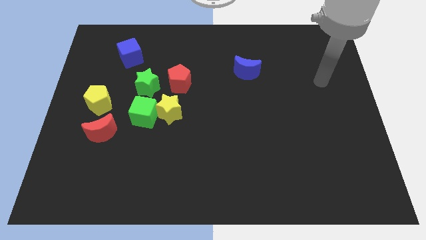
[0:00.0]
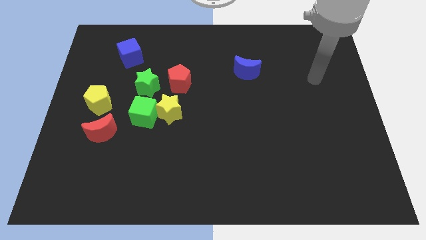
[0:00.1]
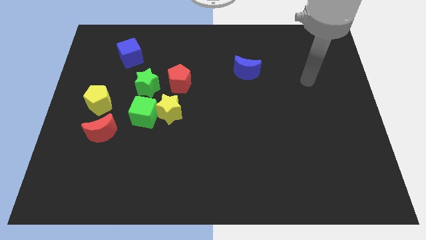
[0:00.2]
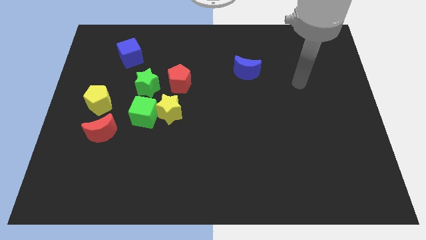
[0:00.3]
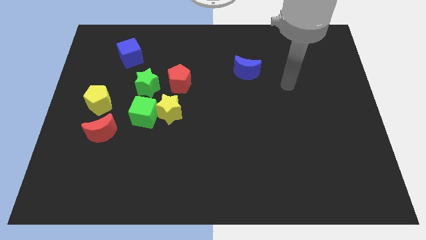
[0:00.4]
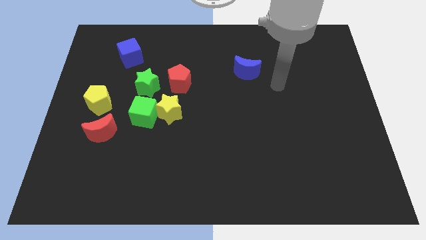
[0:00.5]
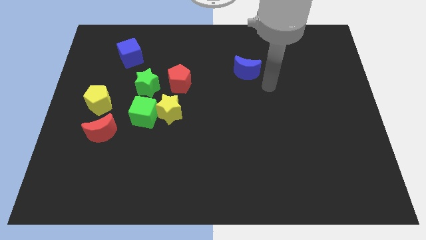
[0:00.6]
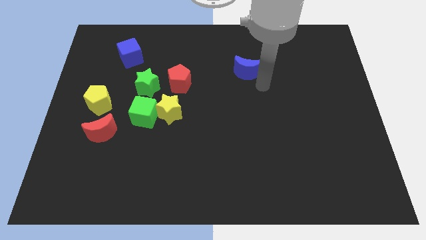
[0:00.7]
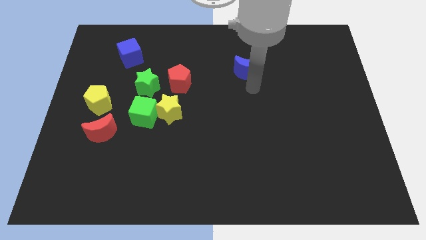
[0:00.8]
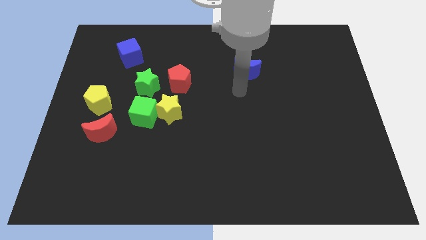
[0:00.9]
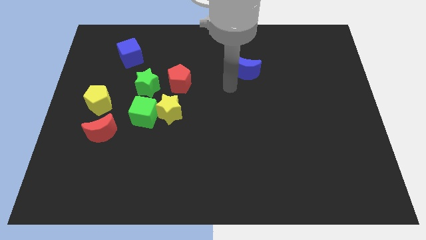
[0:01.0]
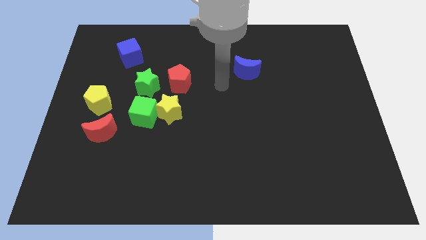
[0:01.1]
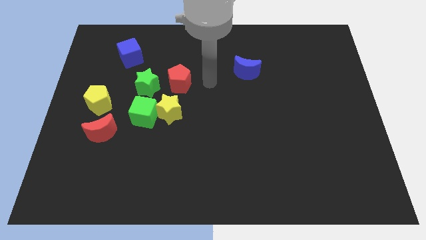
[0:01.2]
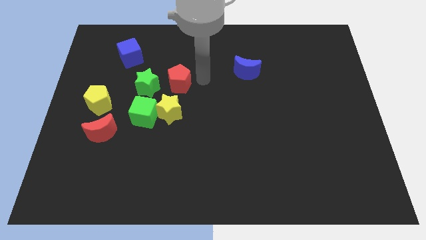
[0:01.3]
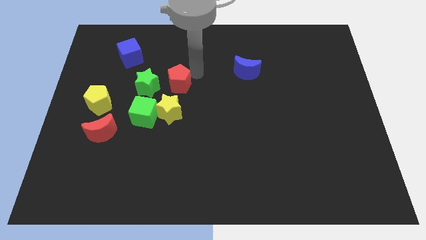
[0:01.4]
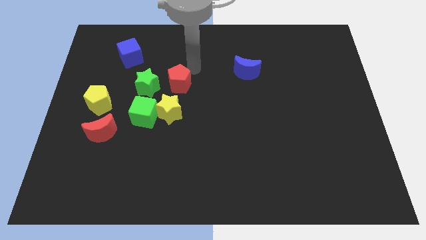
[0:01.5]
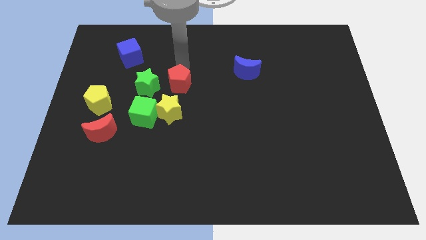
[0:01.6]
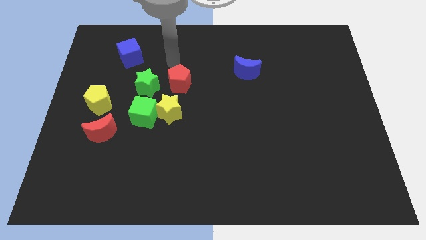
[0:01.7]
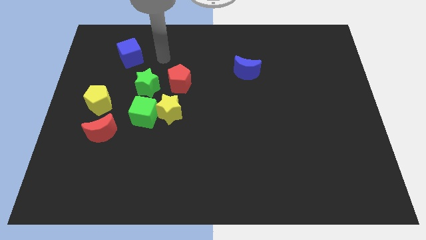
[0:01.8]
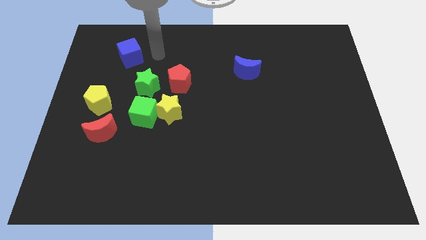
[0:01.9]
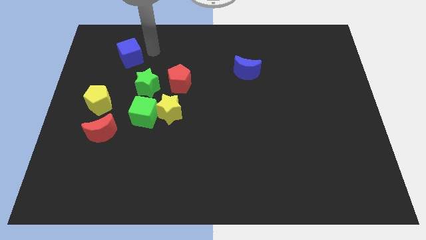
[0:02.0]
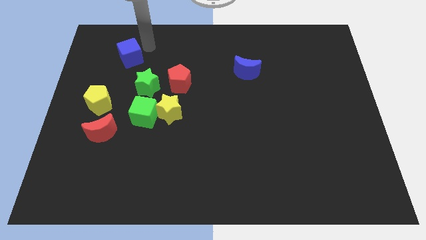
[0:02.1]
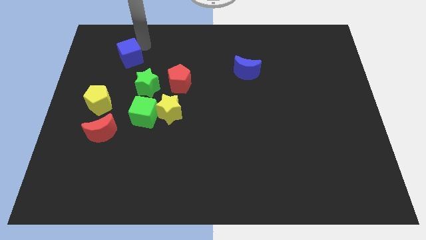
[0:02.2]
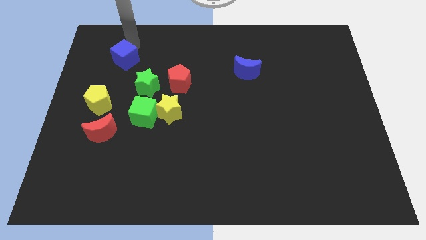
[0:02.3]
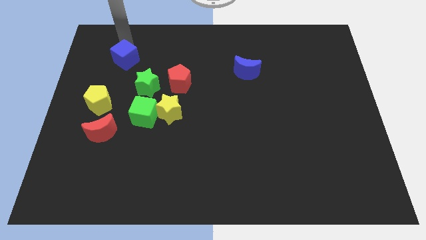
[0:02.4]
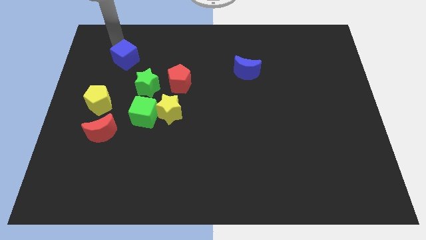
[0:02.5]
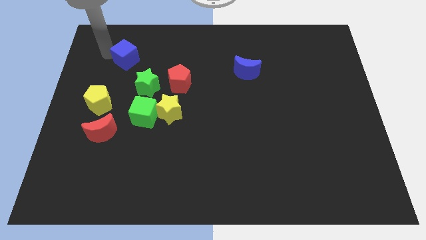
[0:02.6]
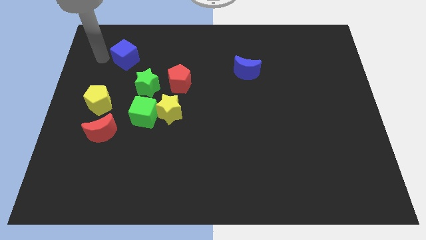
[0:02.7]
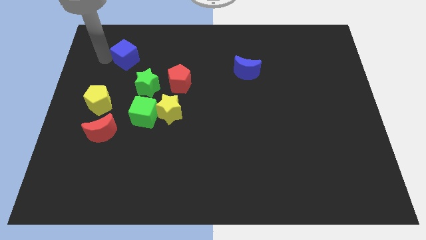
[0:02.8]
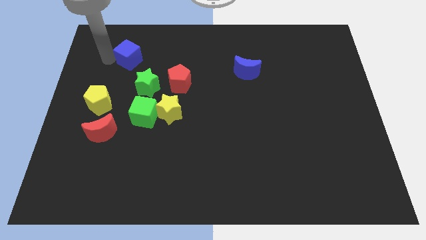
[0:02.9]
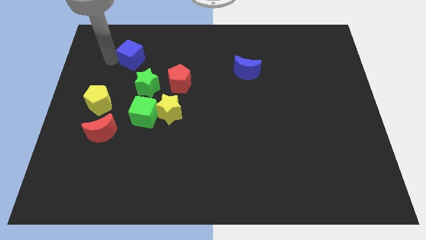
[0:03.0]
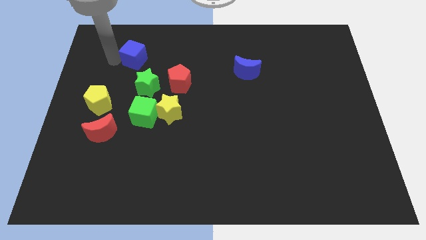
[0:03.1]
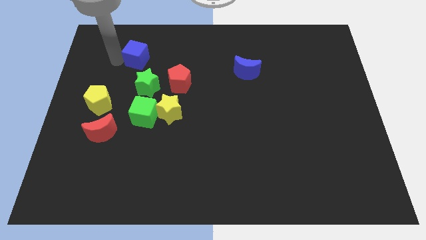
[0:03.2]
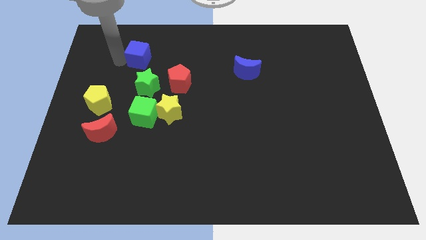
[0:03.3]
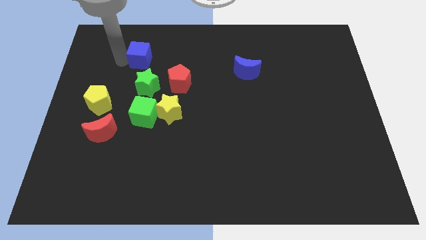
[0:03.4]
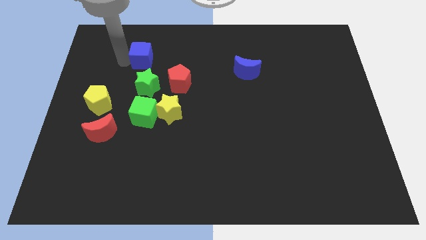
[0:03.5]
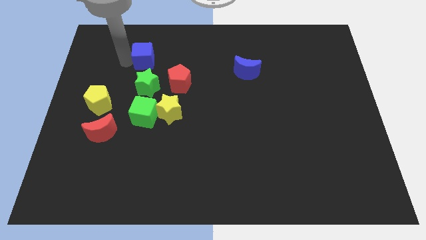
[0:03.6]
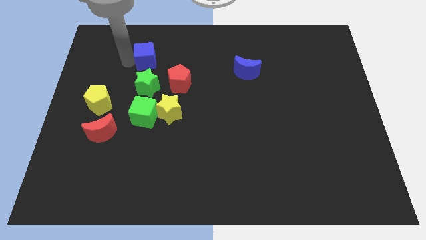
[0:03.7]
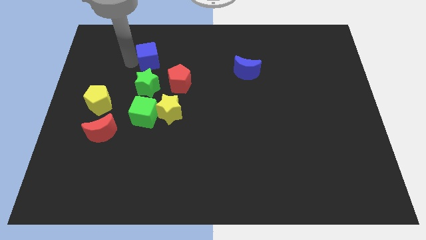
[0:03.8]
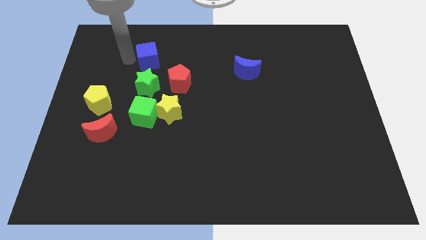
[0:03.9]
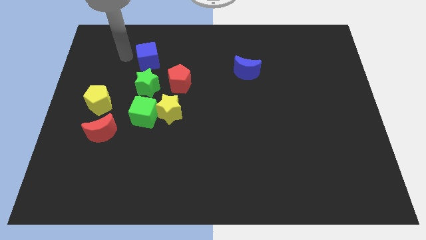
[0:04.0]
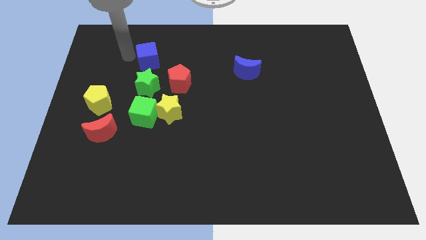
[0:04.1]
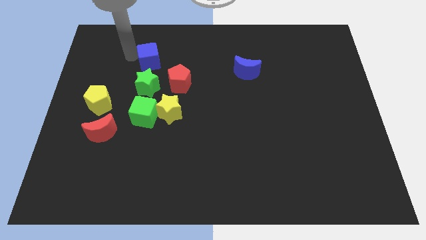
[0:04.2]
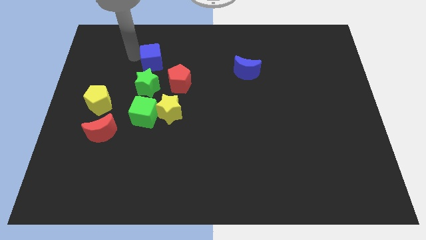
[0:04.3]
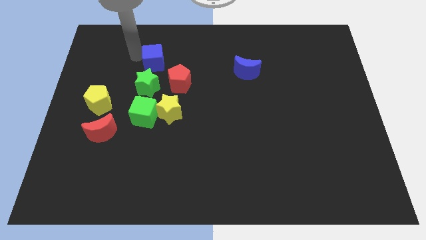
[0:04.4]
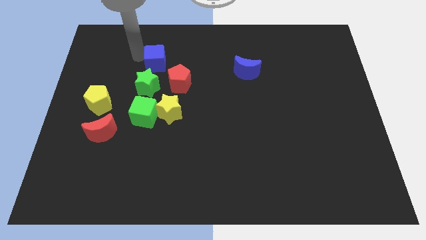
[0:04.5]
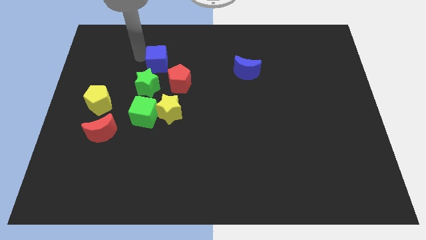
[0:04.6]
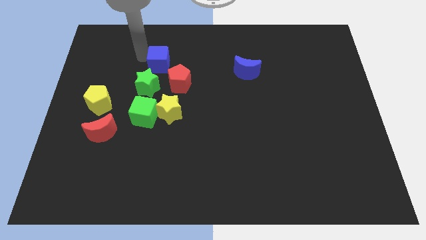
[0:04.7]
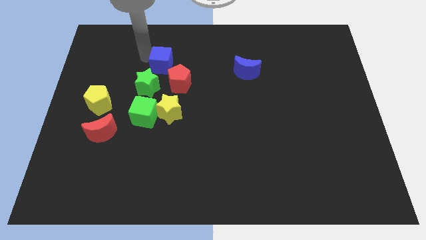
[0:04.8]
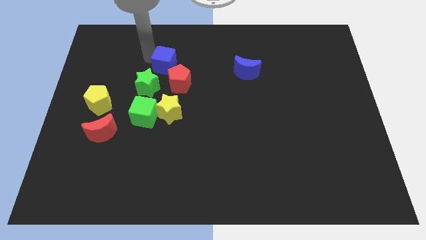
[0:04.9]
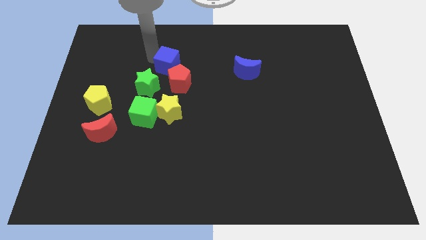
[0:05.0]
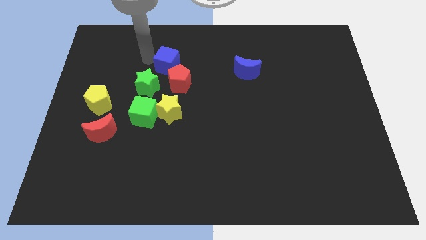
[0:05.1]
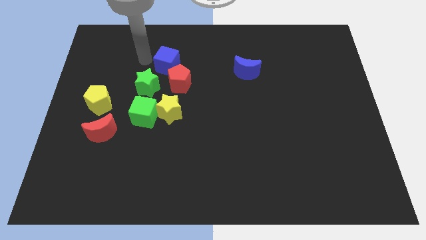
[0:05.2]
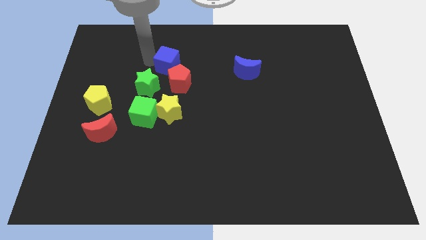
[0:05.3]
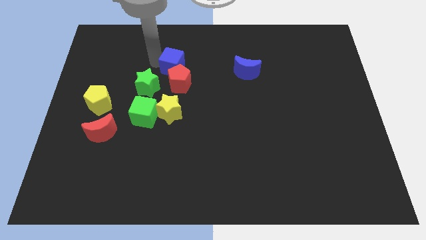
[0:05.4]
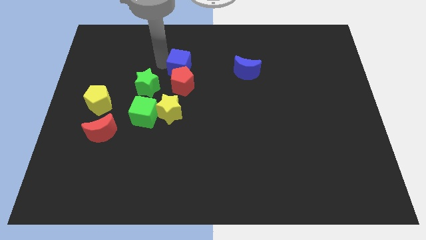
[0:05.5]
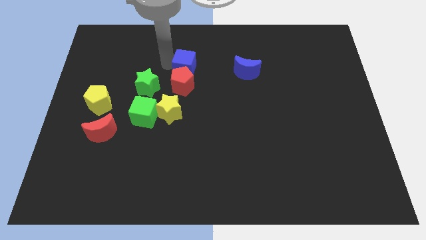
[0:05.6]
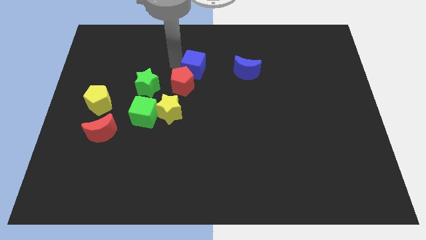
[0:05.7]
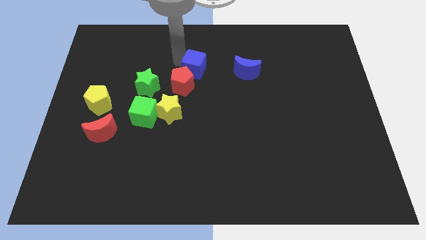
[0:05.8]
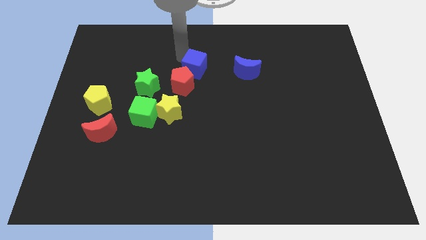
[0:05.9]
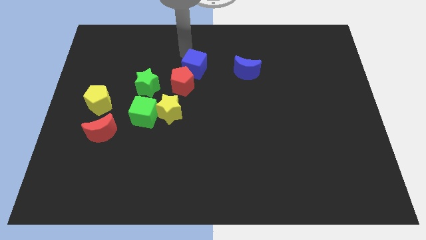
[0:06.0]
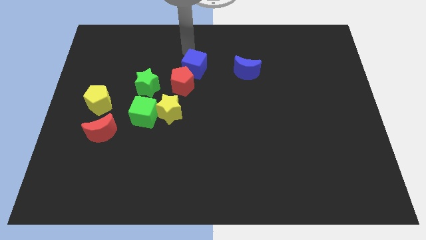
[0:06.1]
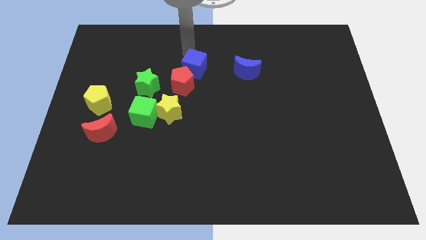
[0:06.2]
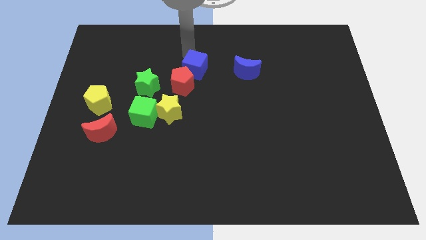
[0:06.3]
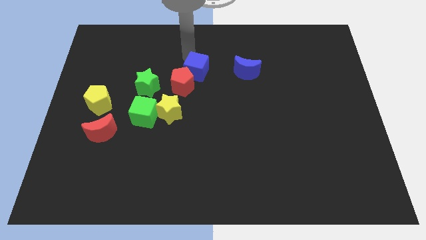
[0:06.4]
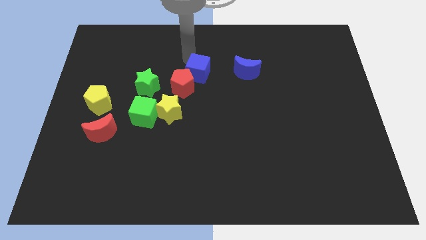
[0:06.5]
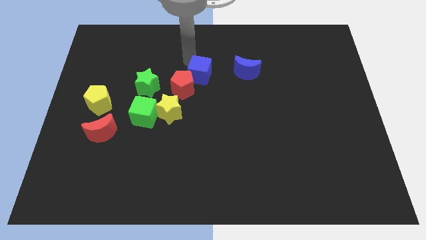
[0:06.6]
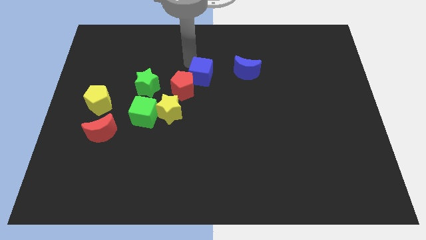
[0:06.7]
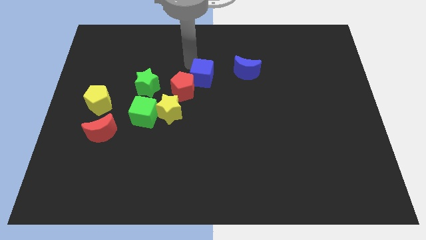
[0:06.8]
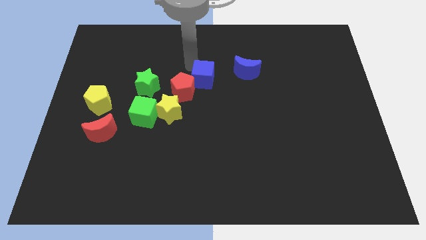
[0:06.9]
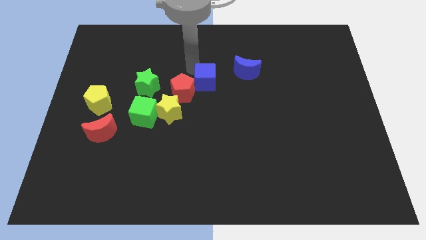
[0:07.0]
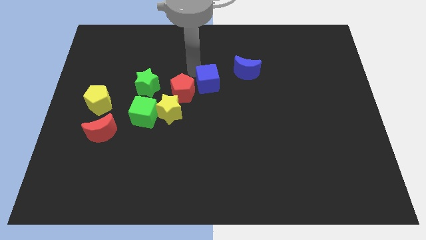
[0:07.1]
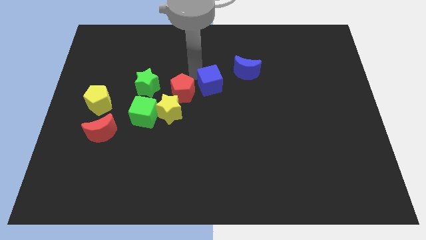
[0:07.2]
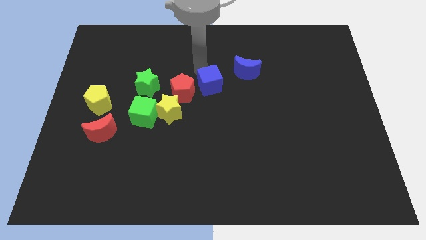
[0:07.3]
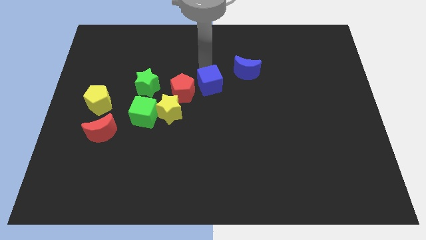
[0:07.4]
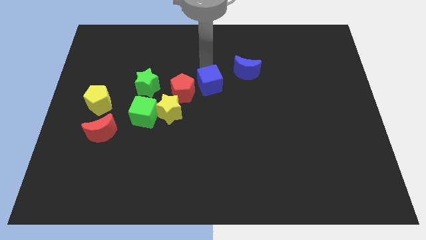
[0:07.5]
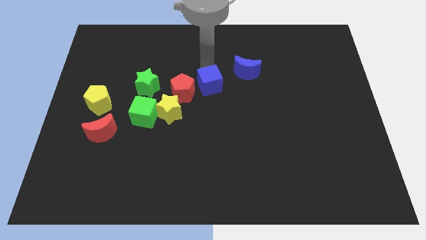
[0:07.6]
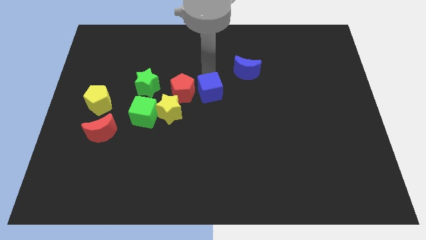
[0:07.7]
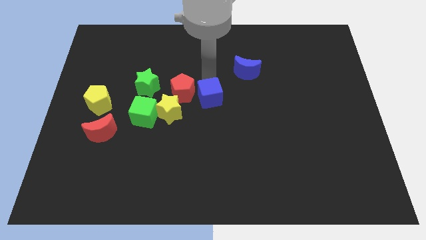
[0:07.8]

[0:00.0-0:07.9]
push the blue cube just right of the yellow star

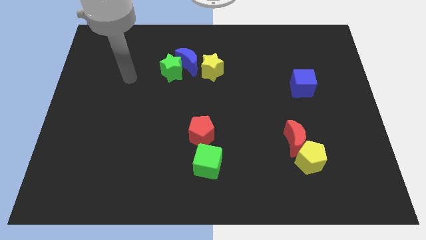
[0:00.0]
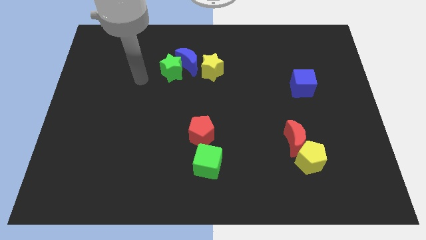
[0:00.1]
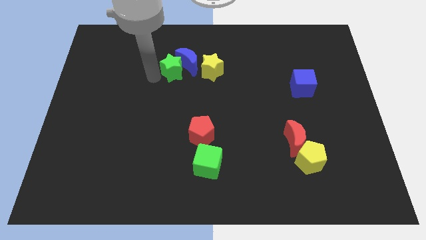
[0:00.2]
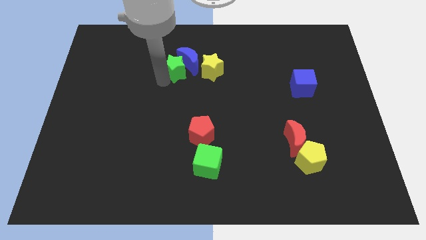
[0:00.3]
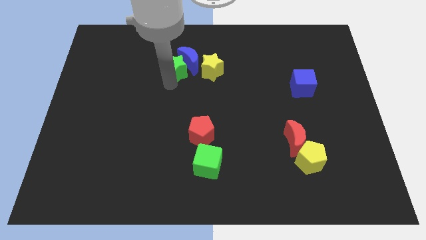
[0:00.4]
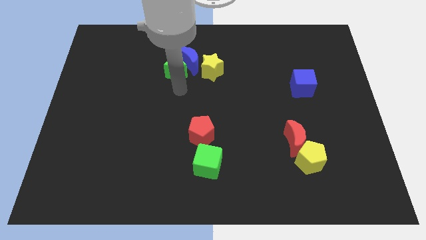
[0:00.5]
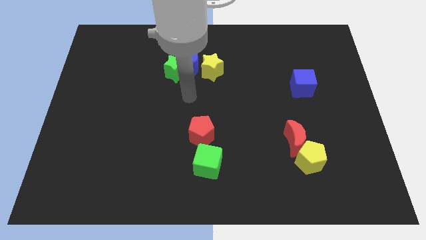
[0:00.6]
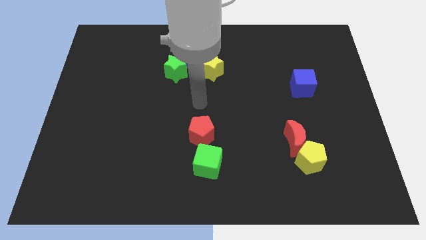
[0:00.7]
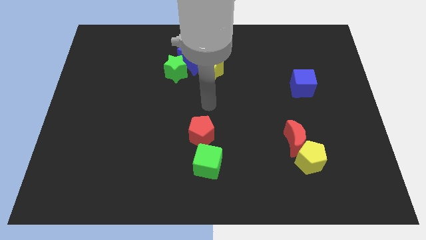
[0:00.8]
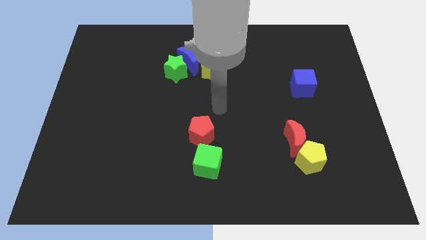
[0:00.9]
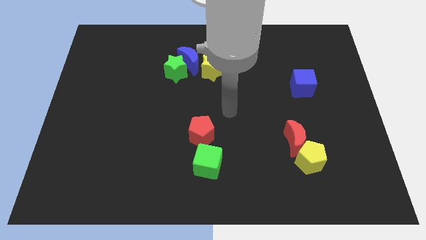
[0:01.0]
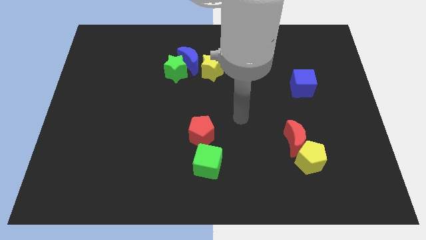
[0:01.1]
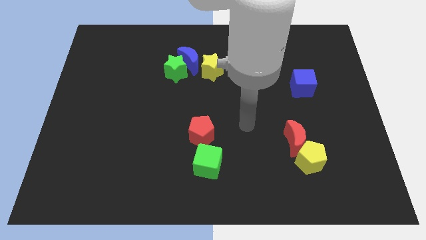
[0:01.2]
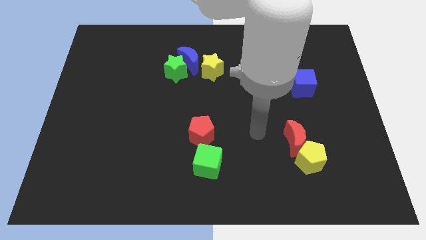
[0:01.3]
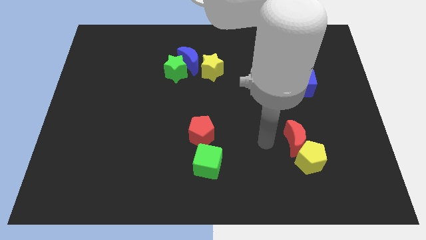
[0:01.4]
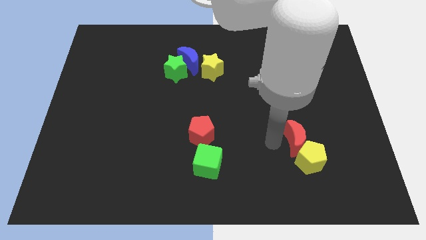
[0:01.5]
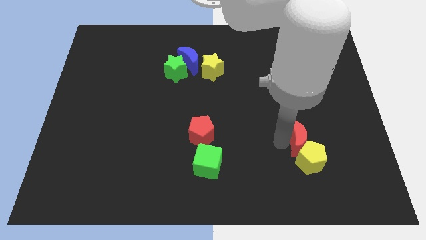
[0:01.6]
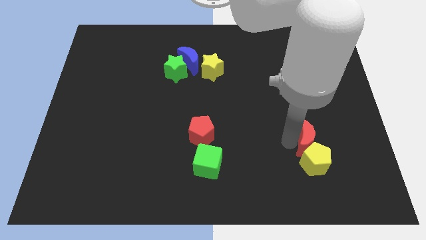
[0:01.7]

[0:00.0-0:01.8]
move the red moon to the top right side of the yellow pentagon
